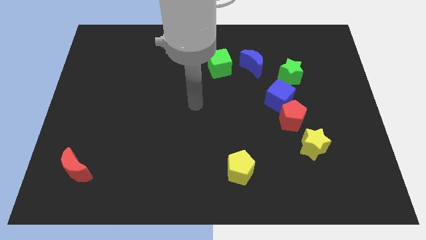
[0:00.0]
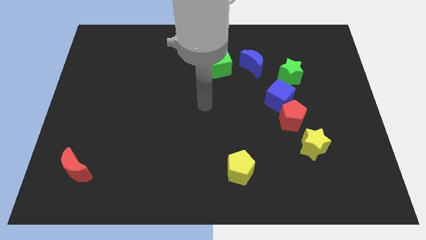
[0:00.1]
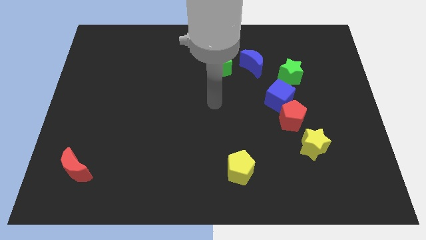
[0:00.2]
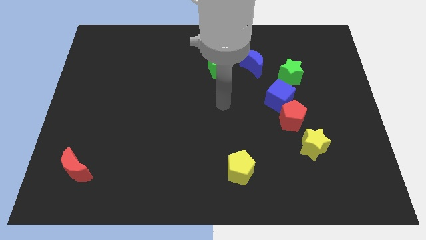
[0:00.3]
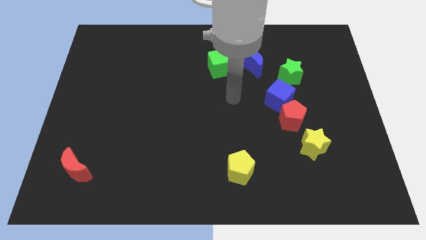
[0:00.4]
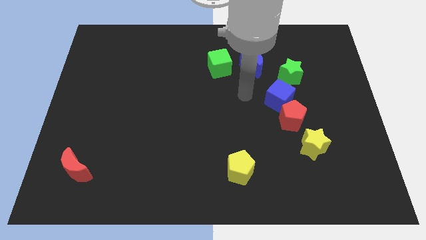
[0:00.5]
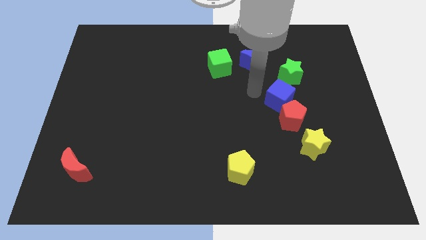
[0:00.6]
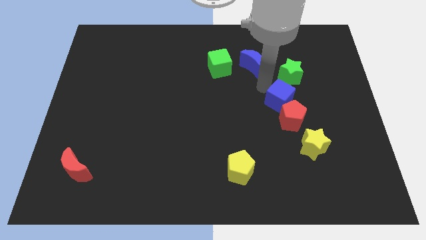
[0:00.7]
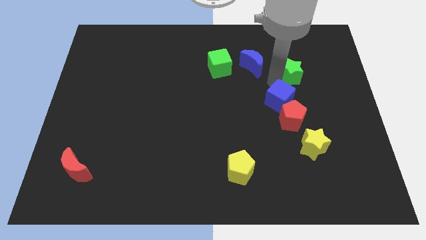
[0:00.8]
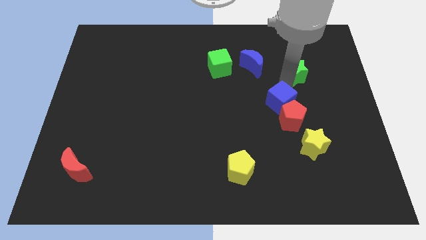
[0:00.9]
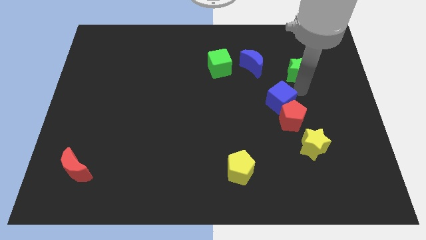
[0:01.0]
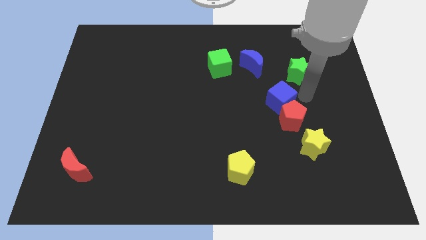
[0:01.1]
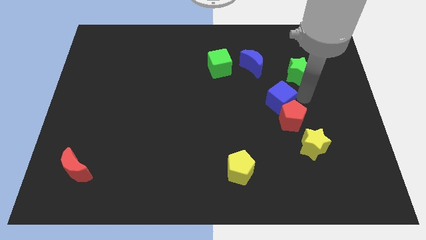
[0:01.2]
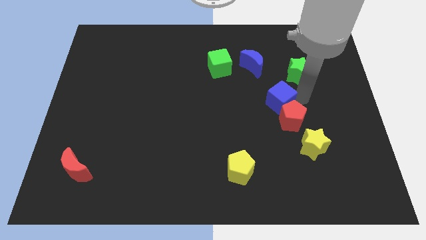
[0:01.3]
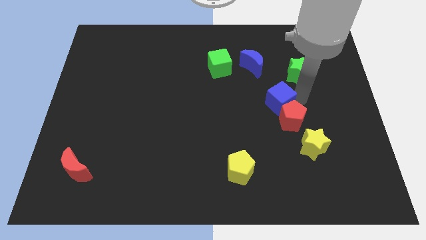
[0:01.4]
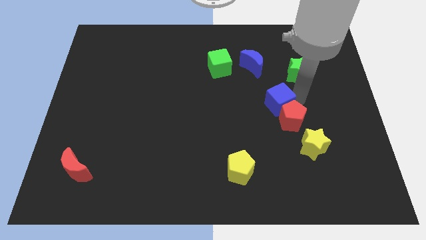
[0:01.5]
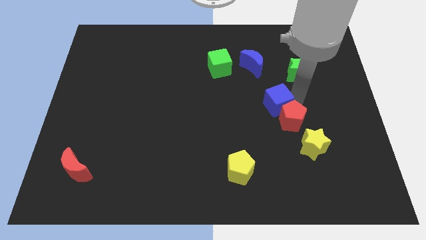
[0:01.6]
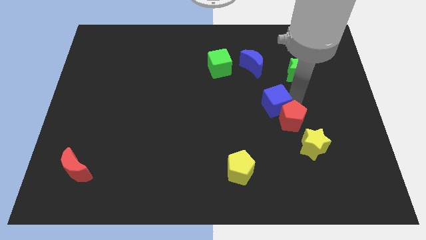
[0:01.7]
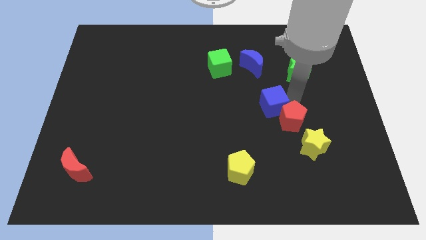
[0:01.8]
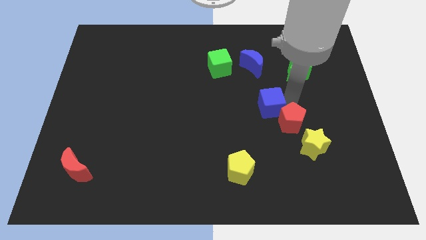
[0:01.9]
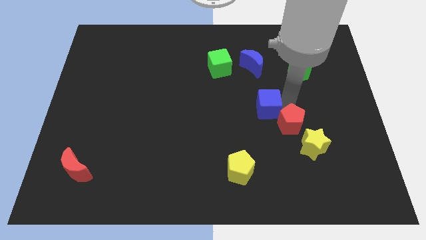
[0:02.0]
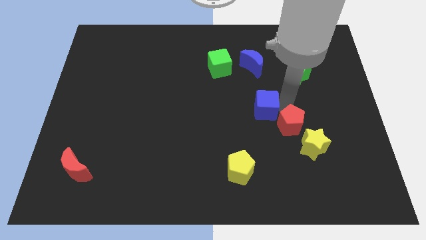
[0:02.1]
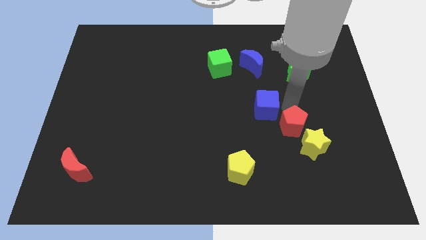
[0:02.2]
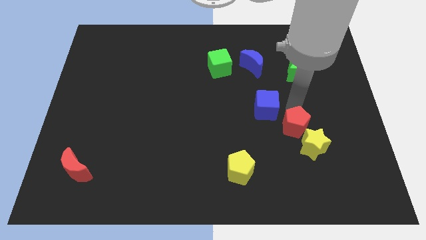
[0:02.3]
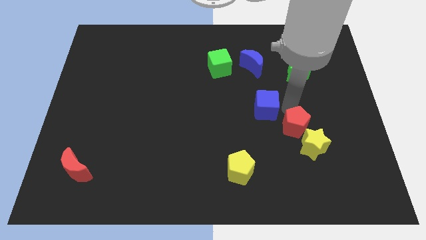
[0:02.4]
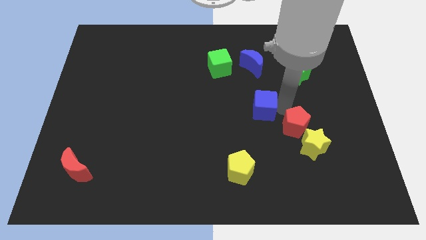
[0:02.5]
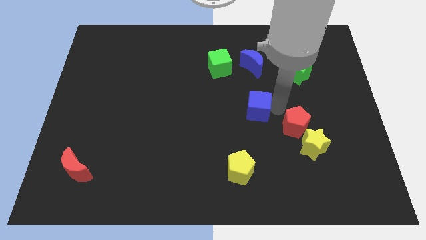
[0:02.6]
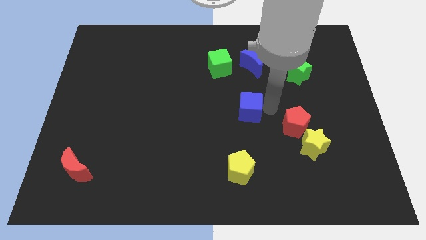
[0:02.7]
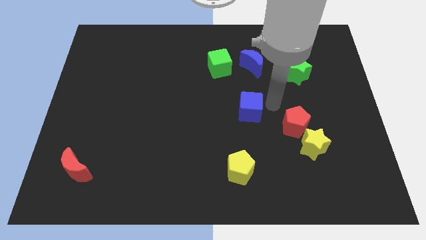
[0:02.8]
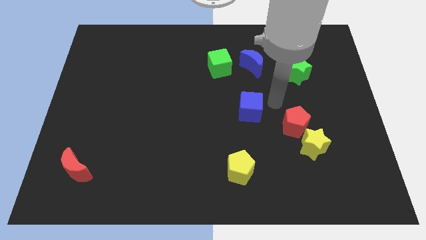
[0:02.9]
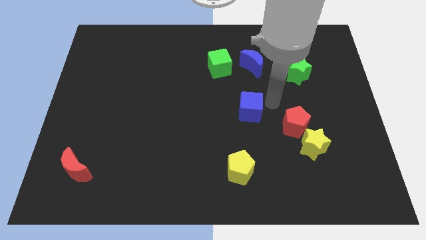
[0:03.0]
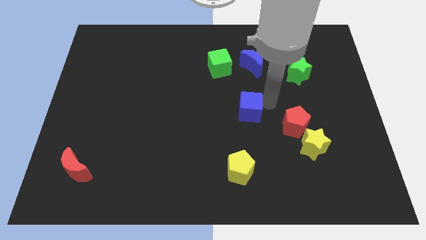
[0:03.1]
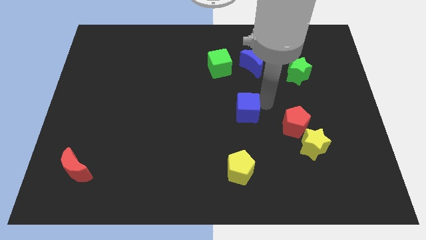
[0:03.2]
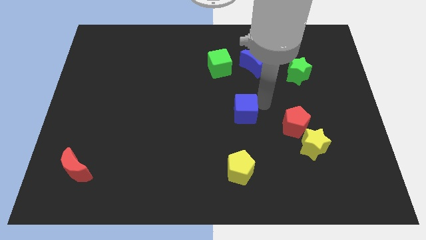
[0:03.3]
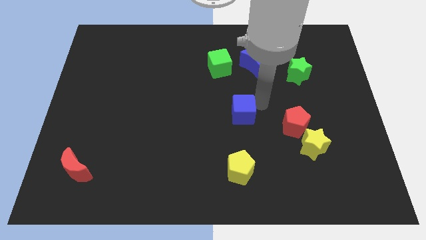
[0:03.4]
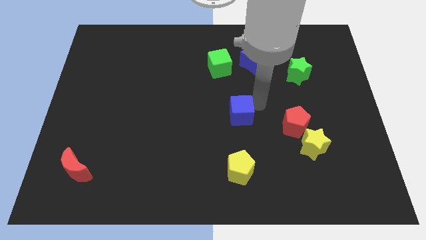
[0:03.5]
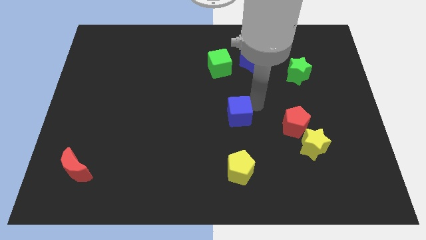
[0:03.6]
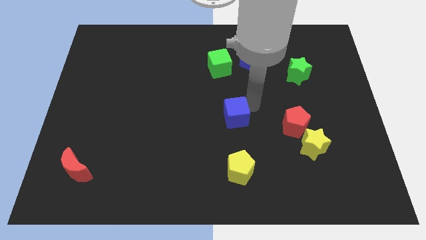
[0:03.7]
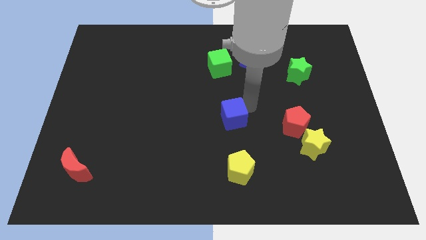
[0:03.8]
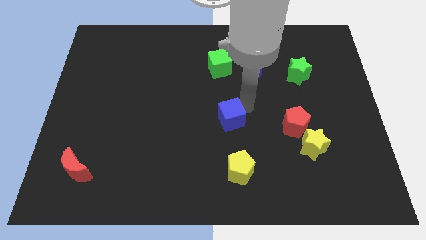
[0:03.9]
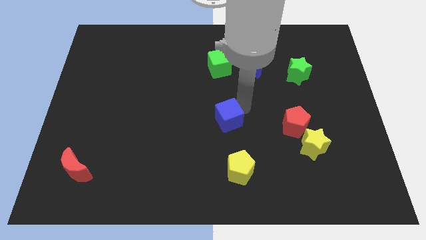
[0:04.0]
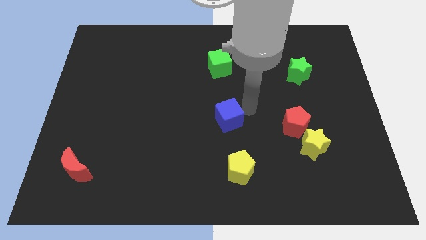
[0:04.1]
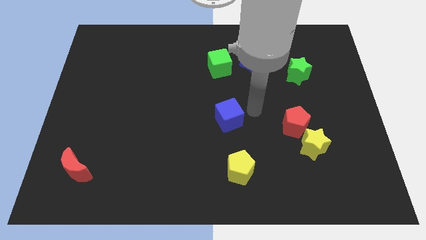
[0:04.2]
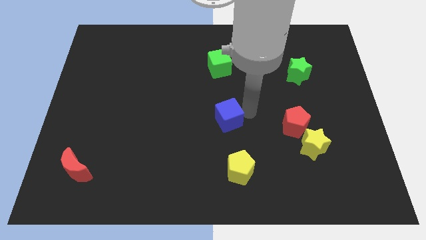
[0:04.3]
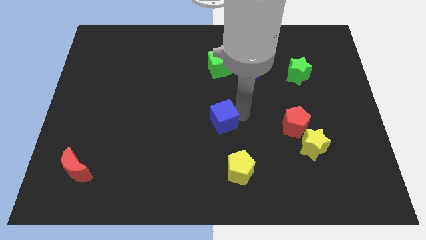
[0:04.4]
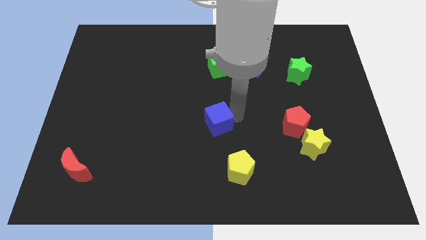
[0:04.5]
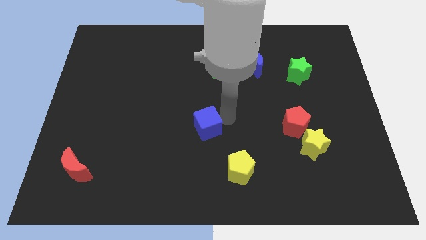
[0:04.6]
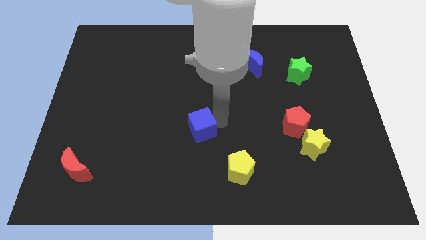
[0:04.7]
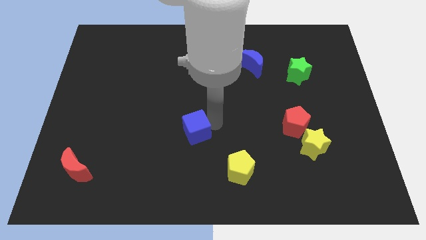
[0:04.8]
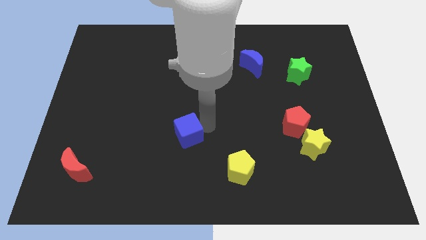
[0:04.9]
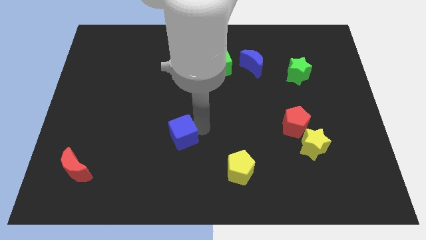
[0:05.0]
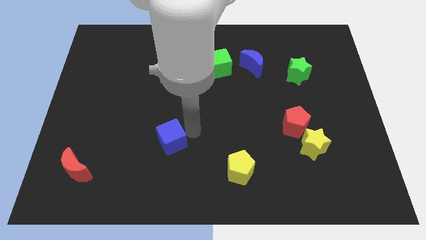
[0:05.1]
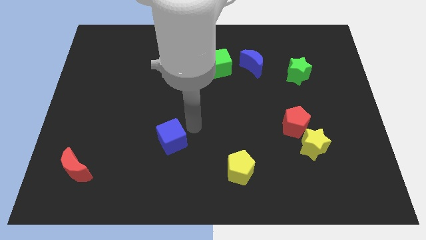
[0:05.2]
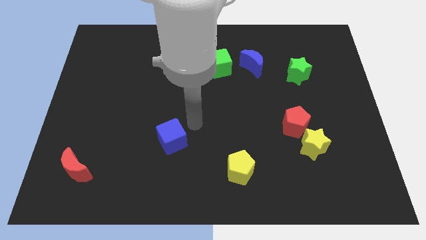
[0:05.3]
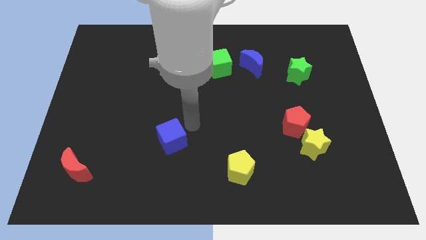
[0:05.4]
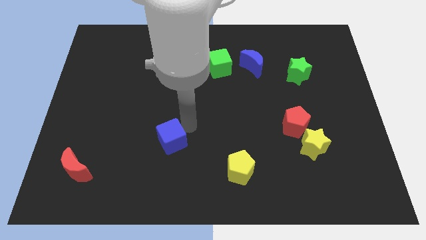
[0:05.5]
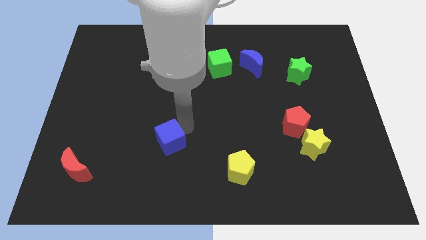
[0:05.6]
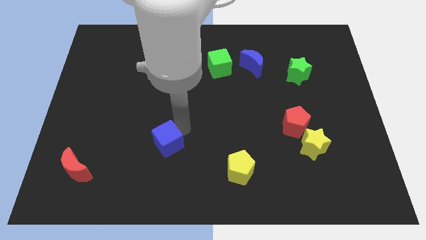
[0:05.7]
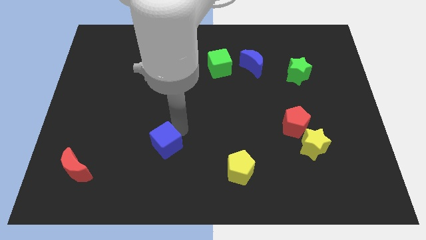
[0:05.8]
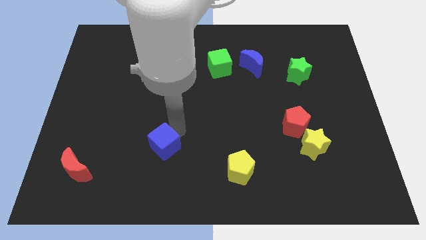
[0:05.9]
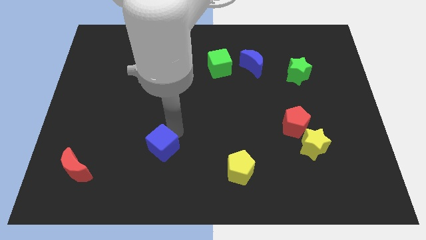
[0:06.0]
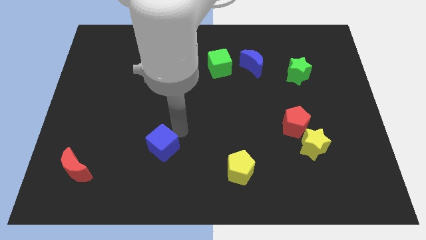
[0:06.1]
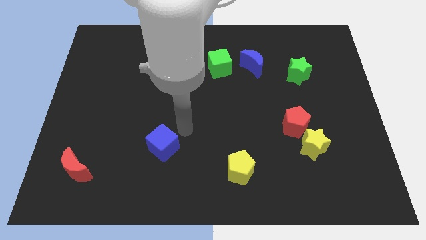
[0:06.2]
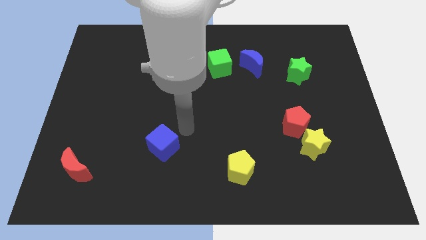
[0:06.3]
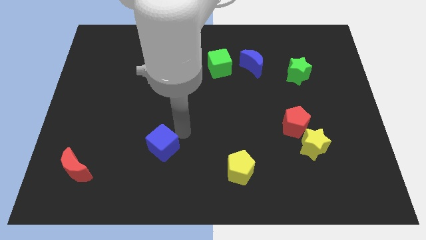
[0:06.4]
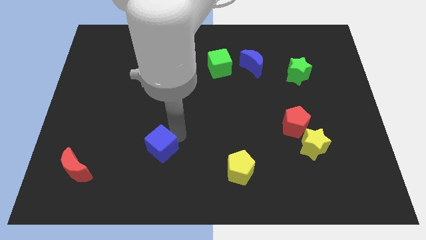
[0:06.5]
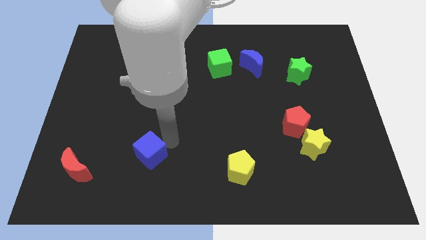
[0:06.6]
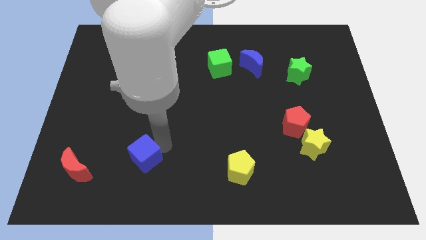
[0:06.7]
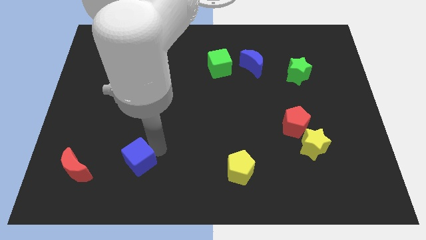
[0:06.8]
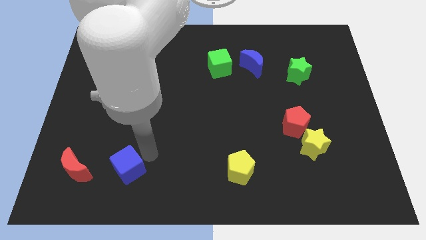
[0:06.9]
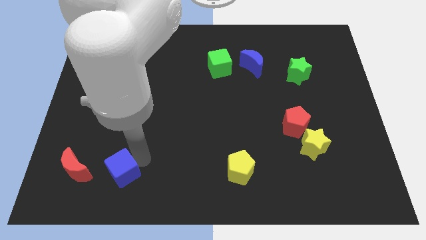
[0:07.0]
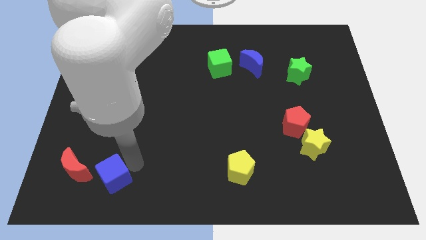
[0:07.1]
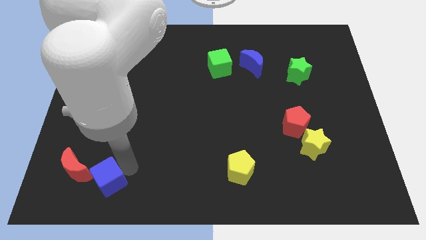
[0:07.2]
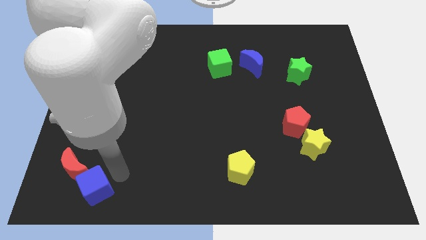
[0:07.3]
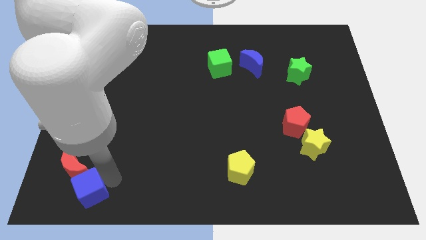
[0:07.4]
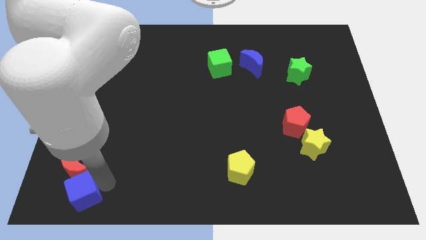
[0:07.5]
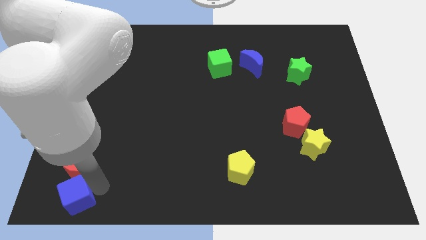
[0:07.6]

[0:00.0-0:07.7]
move the blue cube to the bottom left of the board
